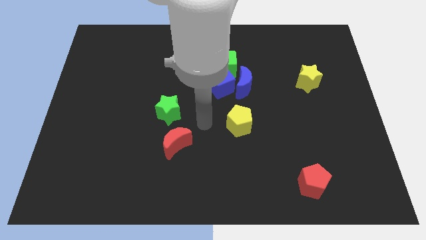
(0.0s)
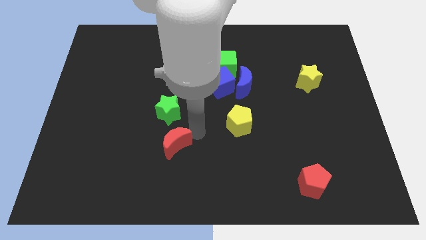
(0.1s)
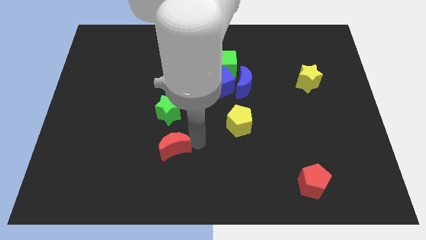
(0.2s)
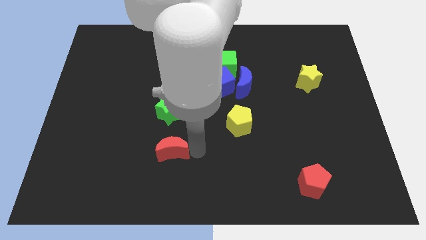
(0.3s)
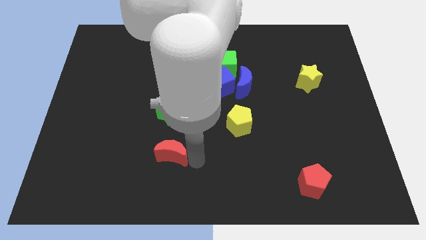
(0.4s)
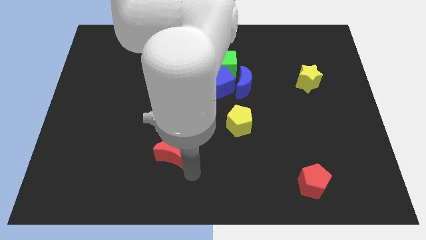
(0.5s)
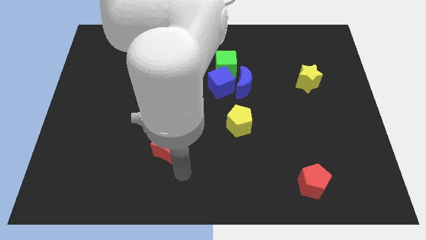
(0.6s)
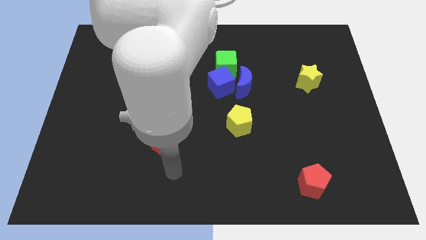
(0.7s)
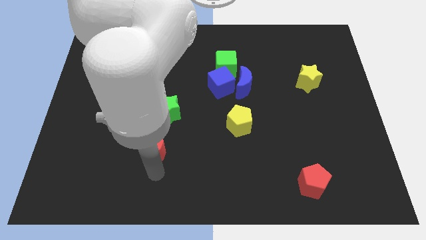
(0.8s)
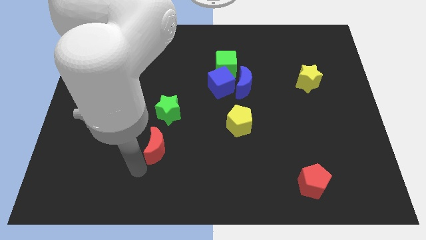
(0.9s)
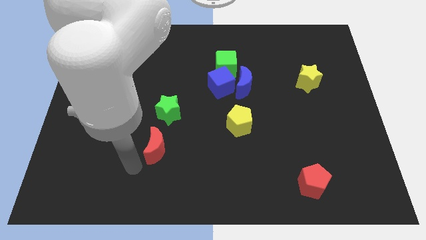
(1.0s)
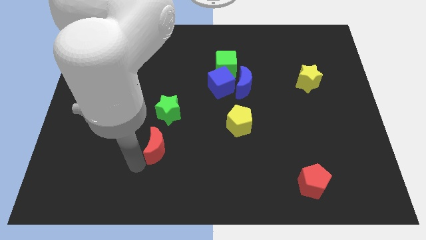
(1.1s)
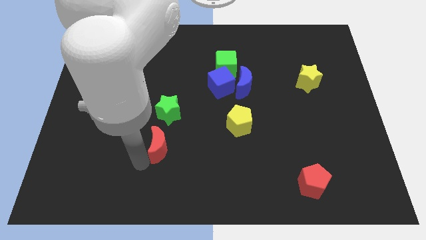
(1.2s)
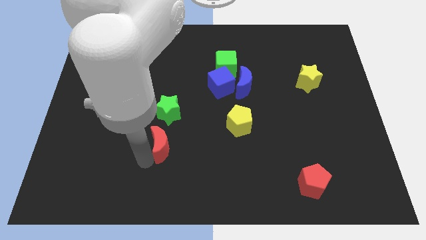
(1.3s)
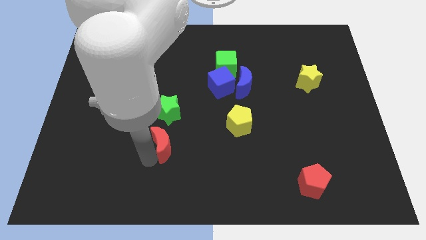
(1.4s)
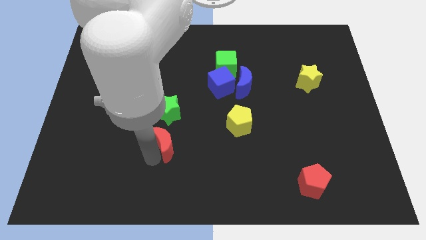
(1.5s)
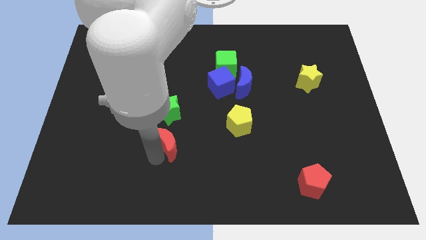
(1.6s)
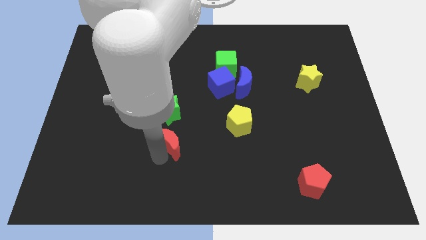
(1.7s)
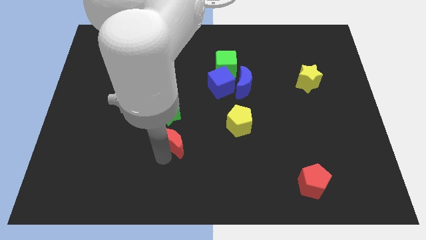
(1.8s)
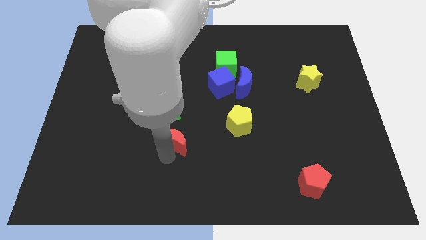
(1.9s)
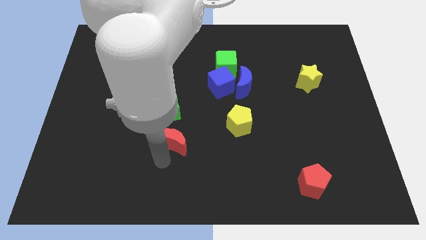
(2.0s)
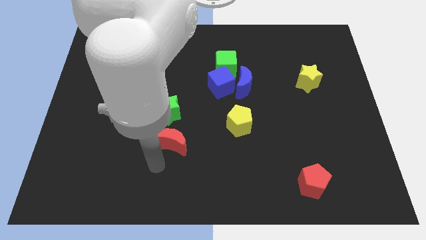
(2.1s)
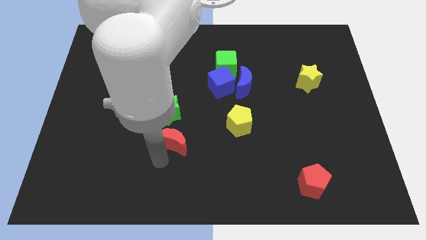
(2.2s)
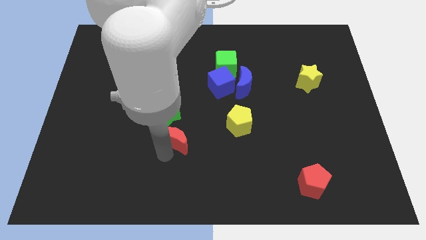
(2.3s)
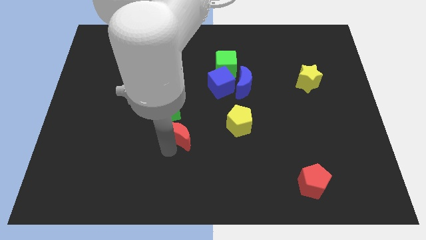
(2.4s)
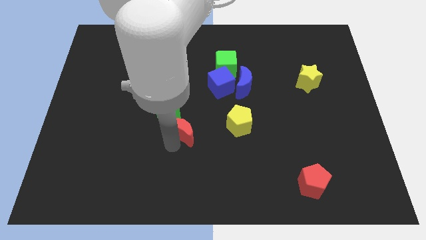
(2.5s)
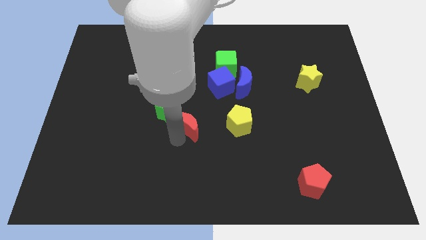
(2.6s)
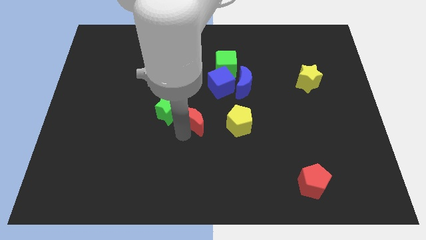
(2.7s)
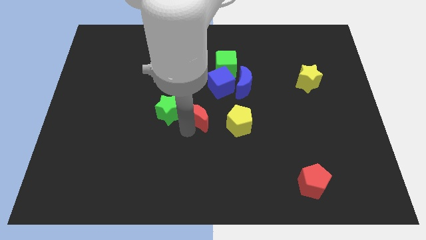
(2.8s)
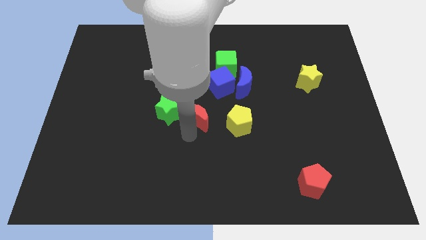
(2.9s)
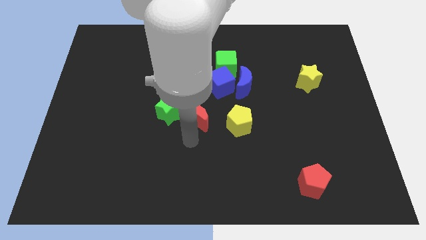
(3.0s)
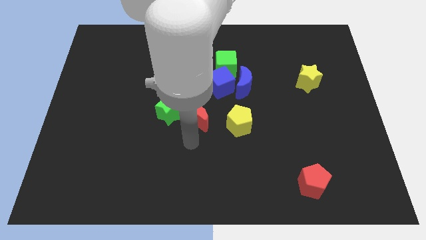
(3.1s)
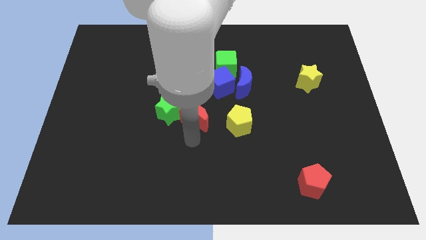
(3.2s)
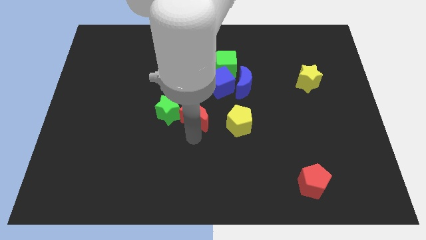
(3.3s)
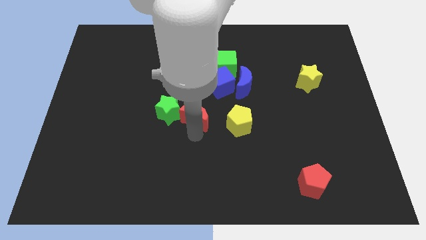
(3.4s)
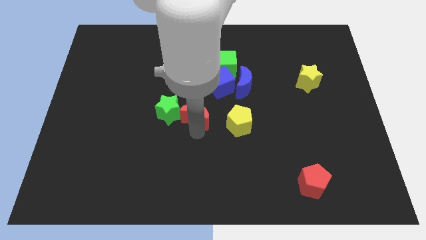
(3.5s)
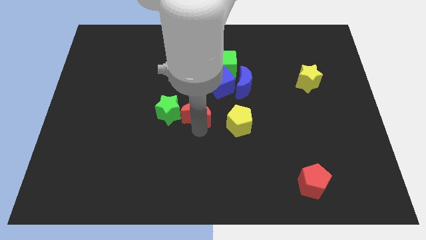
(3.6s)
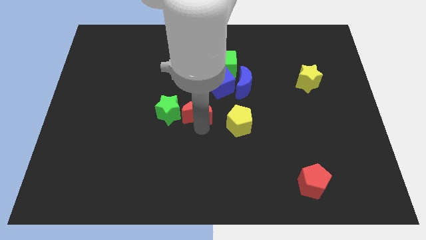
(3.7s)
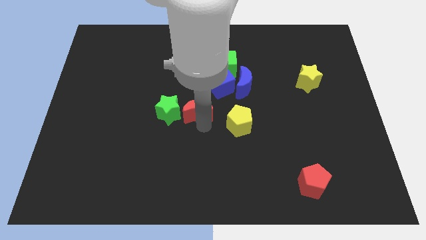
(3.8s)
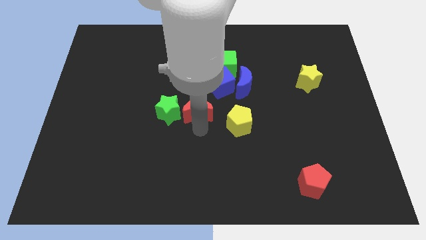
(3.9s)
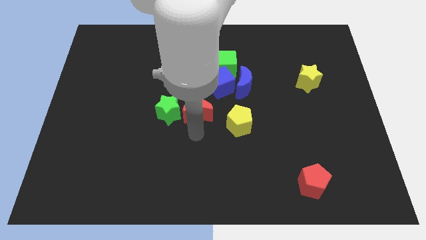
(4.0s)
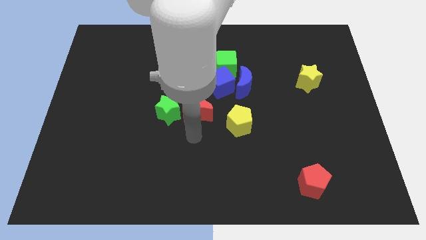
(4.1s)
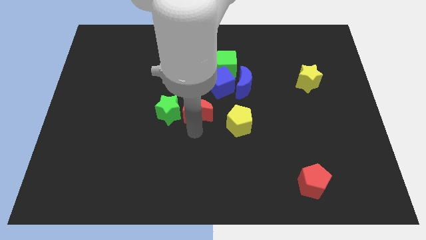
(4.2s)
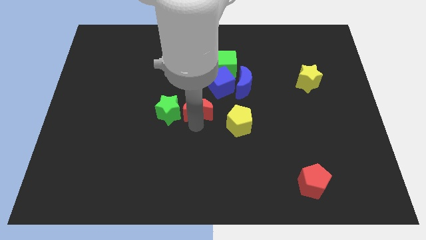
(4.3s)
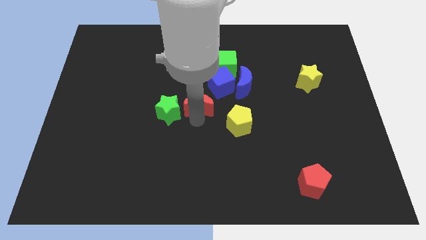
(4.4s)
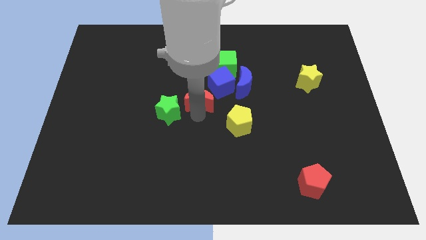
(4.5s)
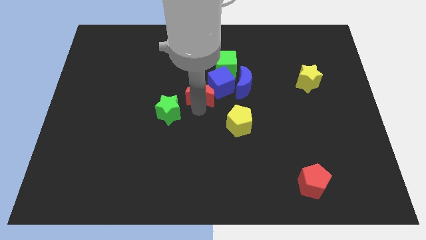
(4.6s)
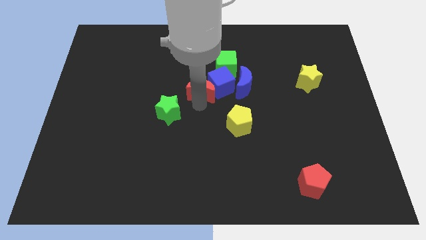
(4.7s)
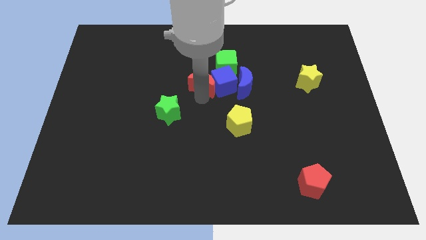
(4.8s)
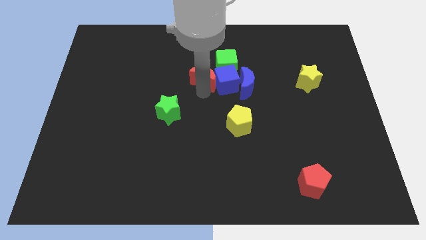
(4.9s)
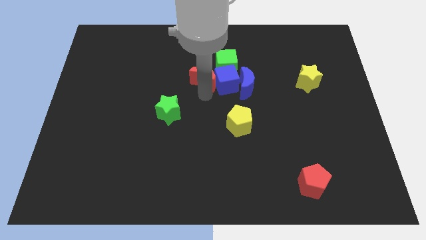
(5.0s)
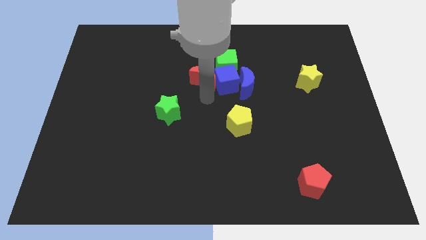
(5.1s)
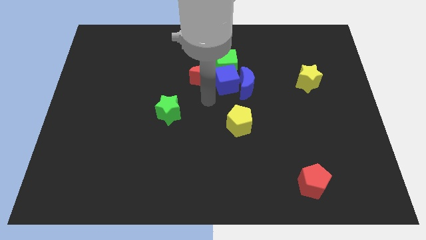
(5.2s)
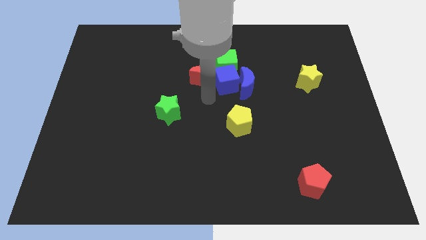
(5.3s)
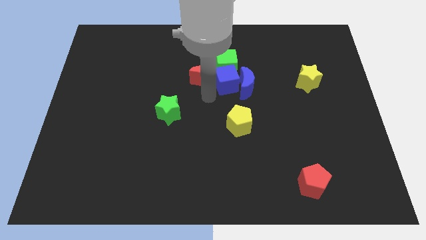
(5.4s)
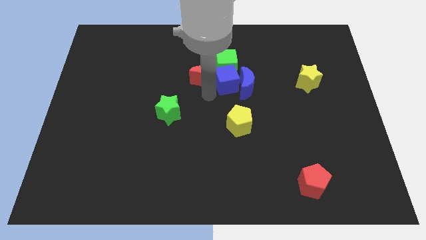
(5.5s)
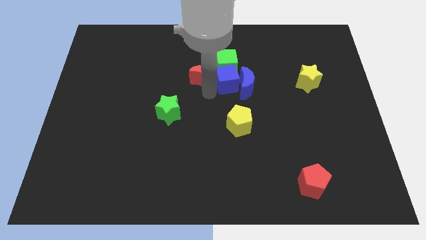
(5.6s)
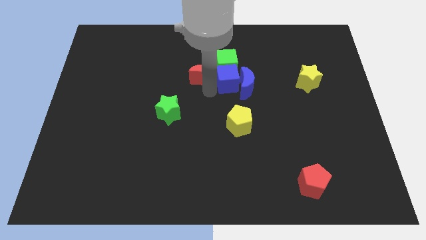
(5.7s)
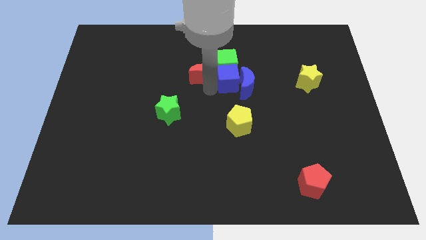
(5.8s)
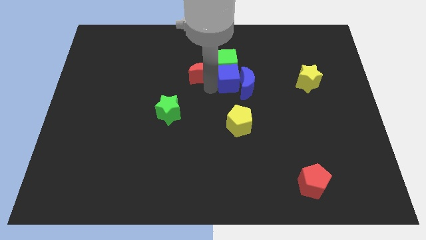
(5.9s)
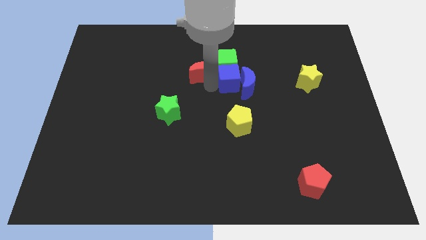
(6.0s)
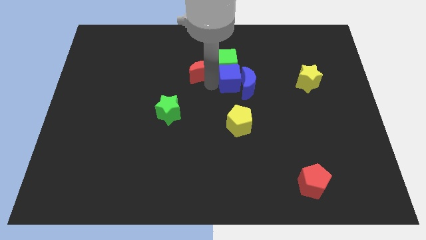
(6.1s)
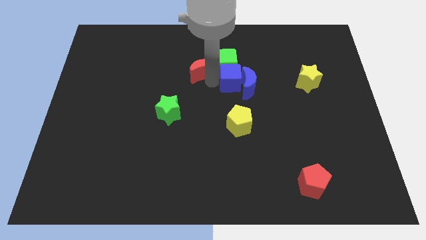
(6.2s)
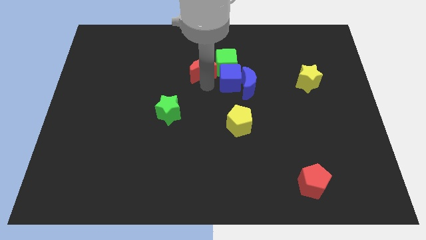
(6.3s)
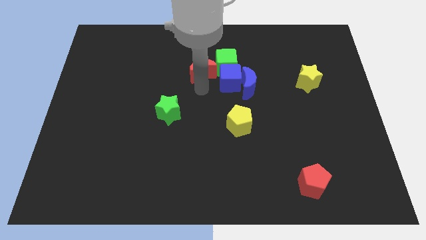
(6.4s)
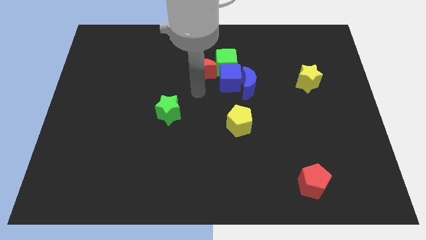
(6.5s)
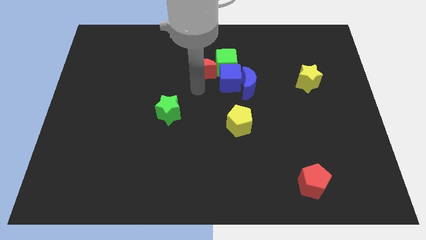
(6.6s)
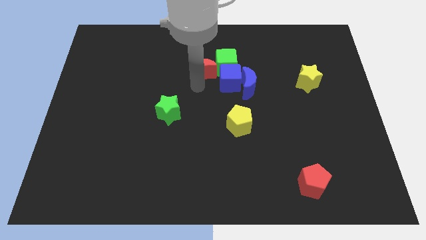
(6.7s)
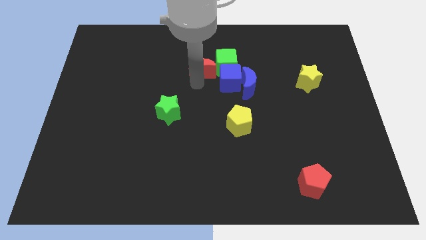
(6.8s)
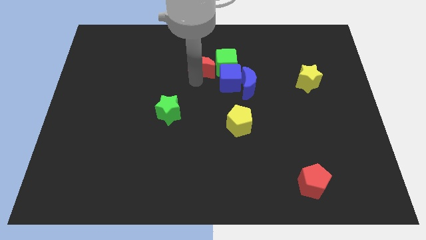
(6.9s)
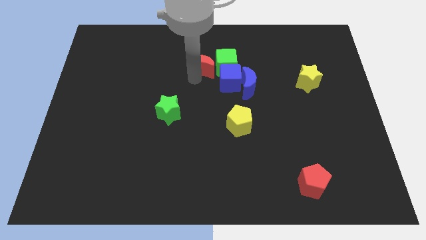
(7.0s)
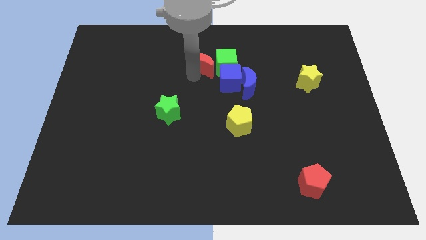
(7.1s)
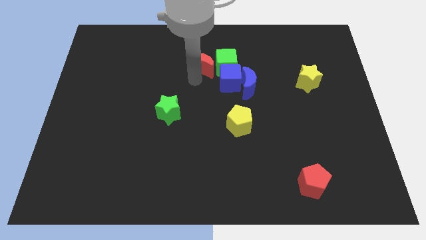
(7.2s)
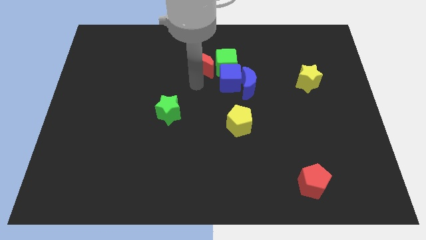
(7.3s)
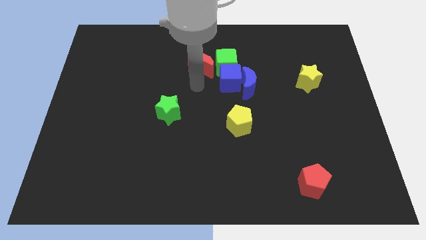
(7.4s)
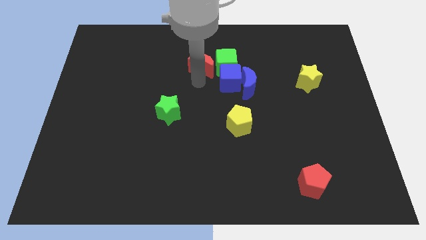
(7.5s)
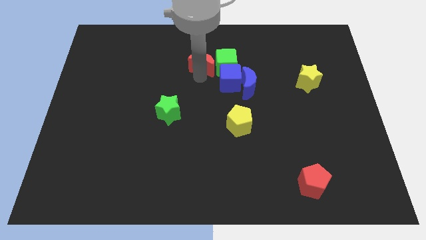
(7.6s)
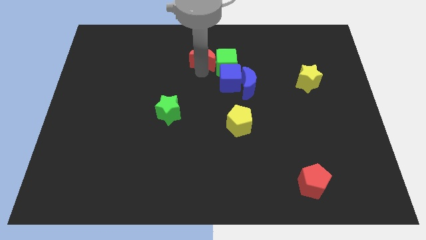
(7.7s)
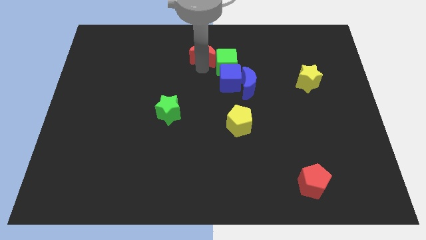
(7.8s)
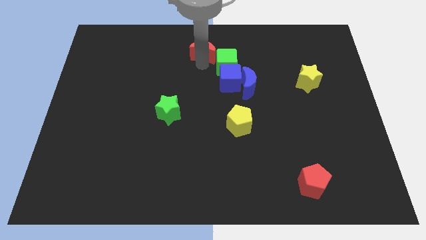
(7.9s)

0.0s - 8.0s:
move the red moon to the top
